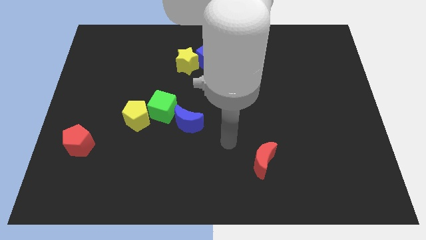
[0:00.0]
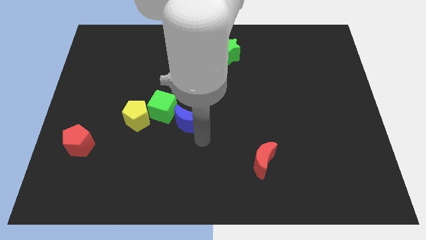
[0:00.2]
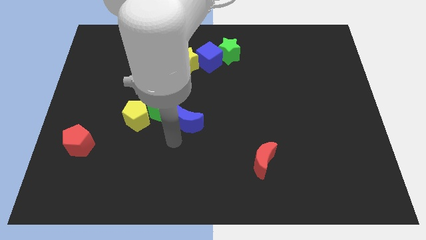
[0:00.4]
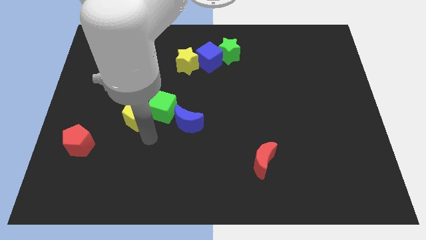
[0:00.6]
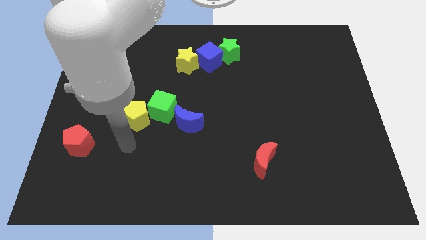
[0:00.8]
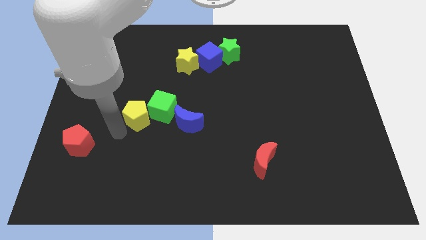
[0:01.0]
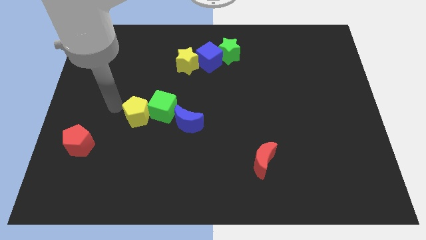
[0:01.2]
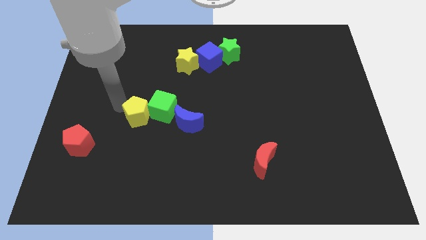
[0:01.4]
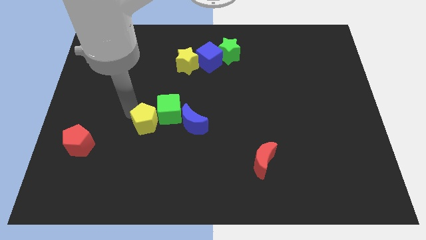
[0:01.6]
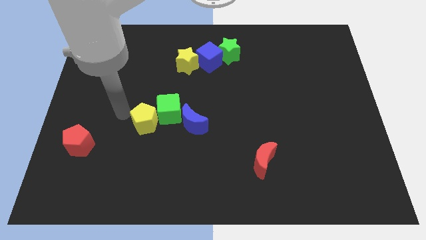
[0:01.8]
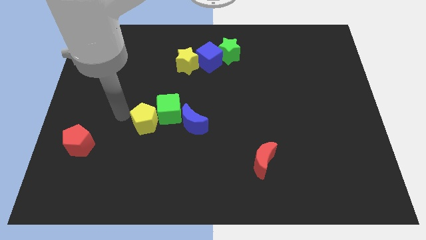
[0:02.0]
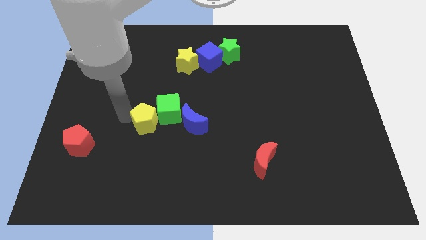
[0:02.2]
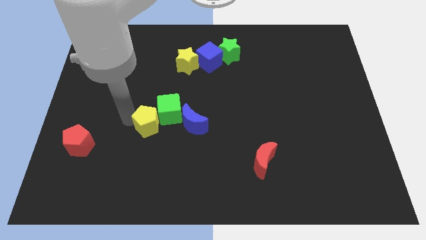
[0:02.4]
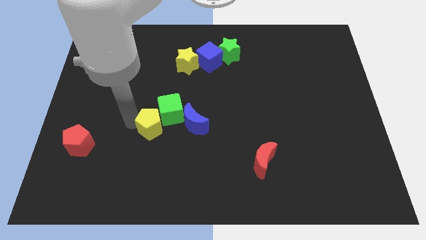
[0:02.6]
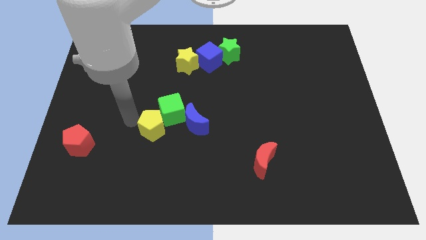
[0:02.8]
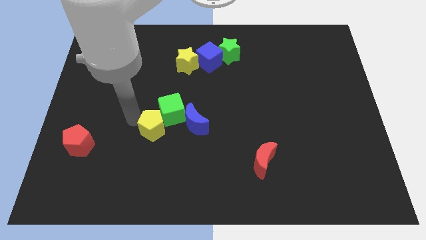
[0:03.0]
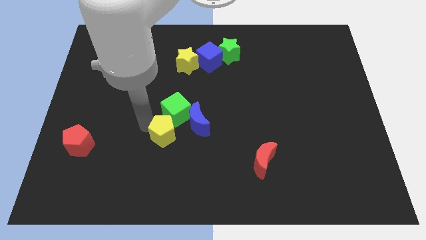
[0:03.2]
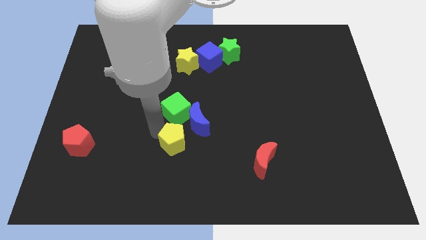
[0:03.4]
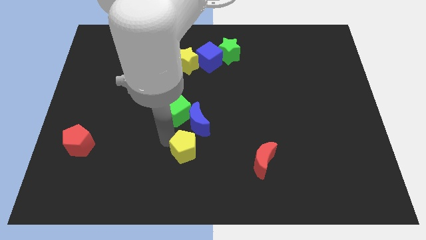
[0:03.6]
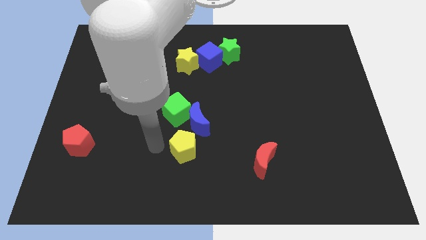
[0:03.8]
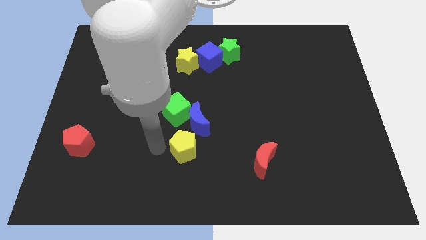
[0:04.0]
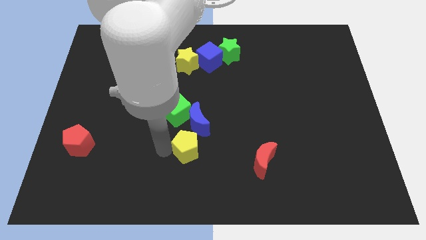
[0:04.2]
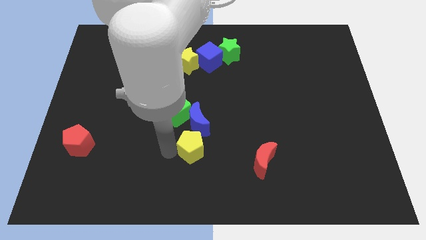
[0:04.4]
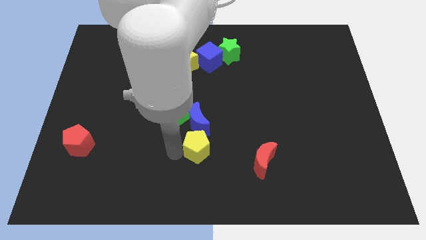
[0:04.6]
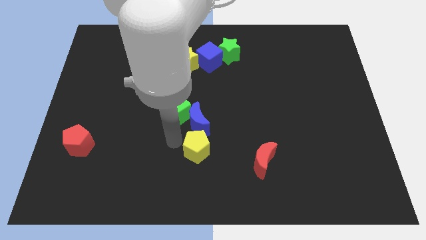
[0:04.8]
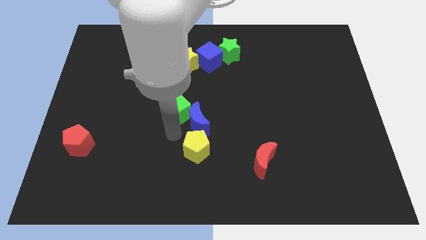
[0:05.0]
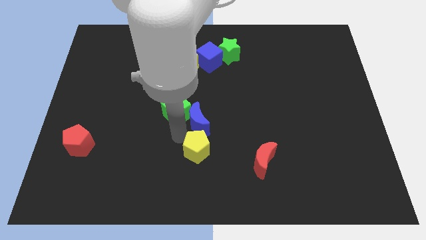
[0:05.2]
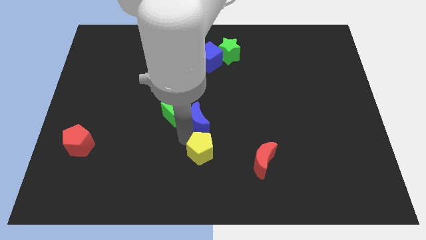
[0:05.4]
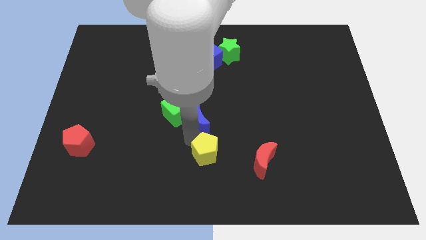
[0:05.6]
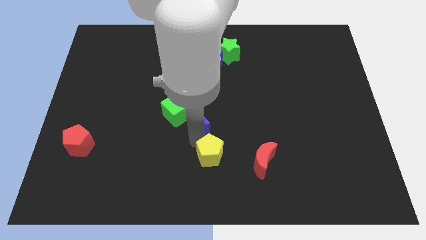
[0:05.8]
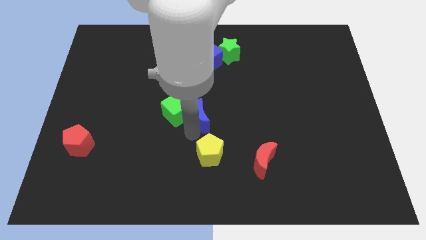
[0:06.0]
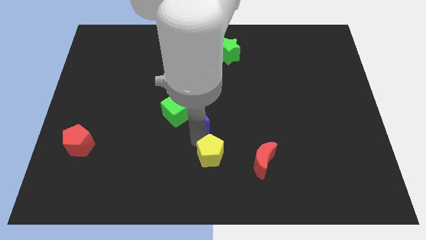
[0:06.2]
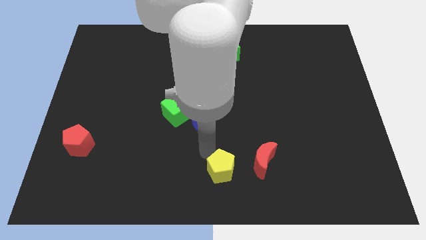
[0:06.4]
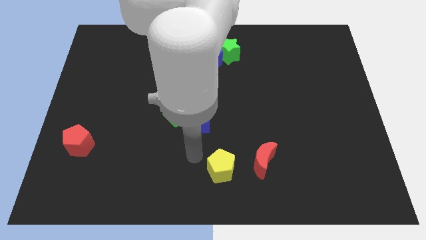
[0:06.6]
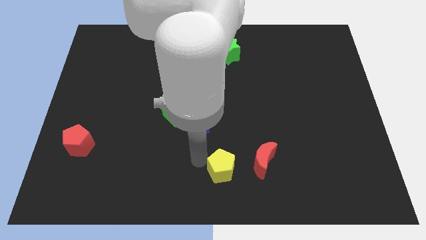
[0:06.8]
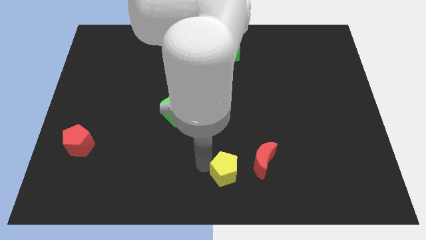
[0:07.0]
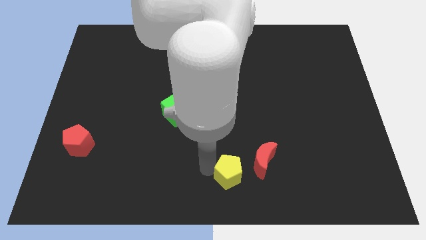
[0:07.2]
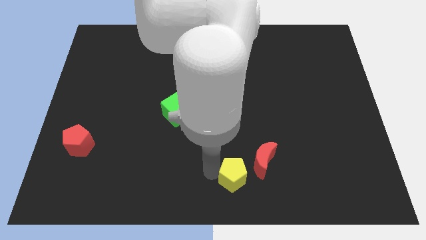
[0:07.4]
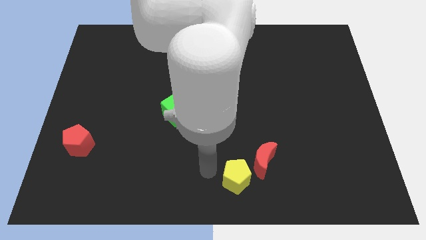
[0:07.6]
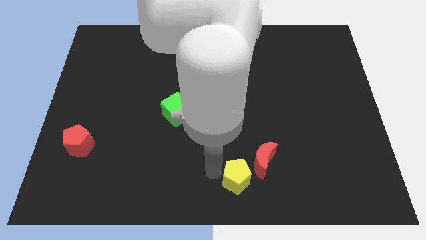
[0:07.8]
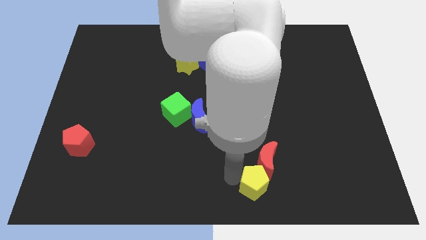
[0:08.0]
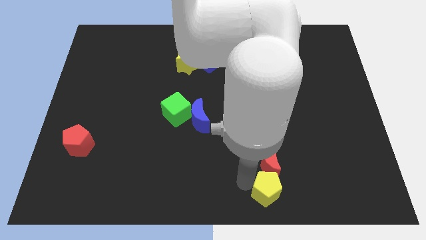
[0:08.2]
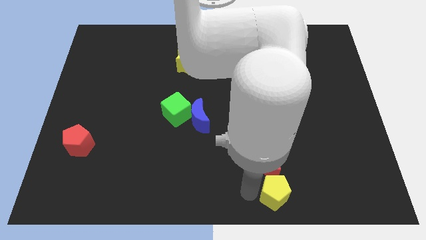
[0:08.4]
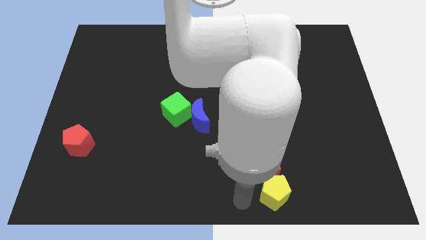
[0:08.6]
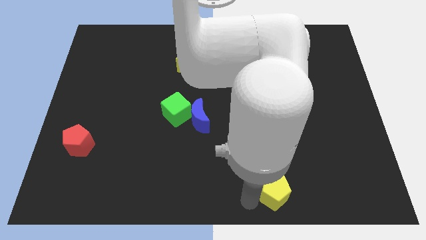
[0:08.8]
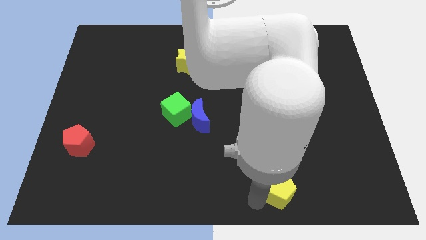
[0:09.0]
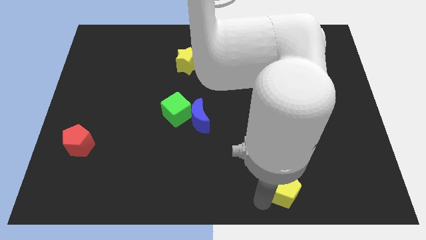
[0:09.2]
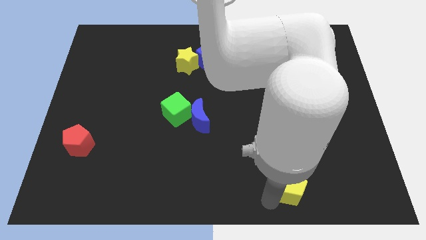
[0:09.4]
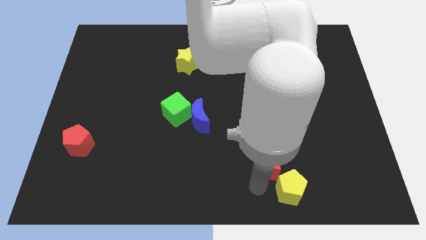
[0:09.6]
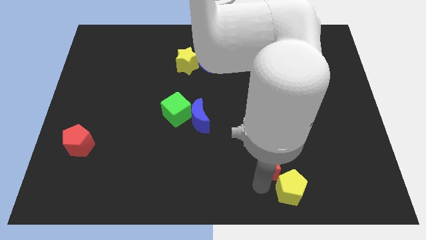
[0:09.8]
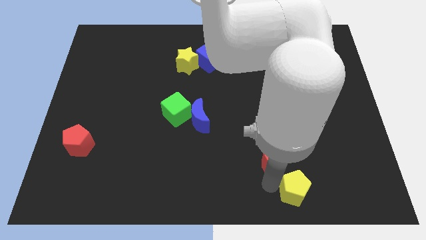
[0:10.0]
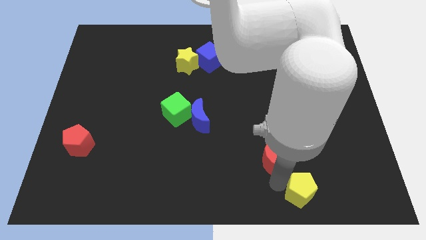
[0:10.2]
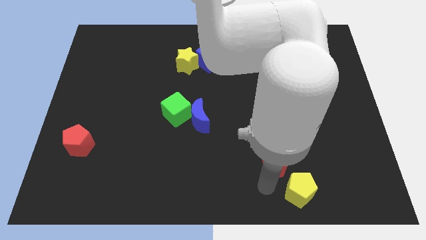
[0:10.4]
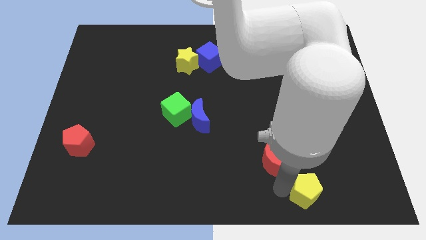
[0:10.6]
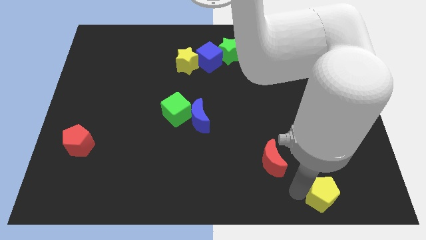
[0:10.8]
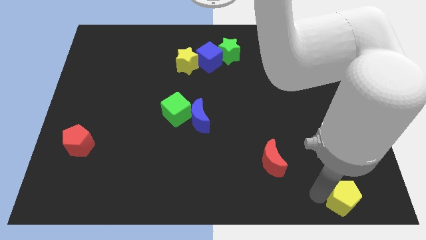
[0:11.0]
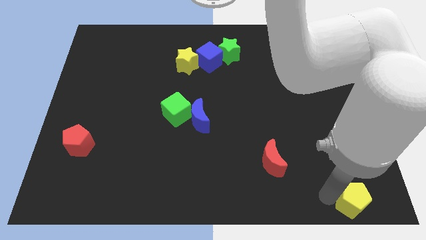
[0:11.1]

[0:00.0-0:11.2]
slide the yellow pentagon to the lower right corner

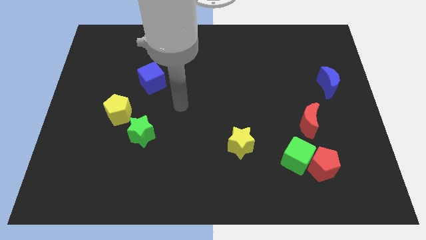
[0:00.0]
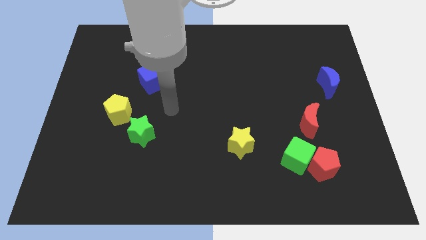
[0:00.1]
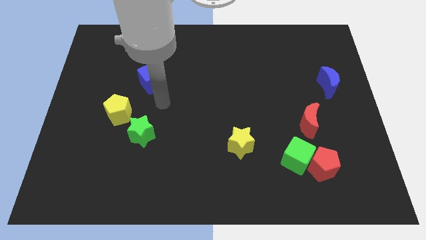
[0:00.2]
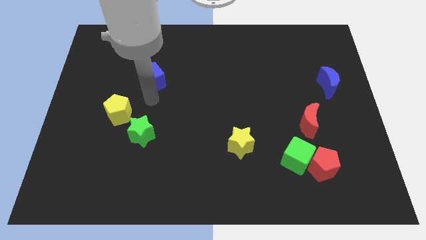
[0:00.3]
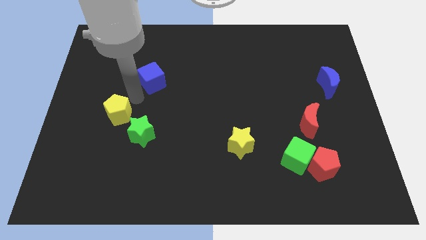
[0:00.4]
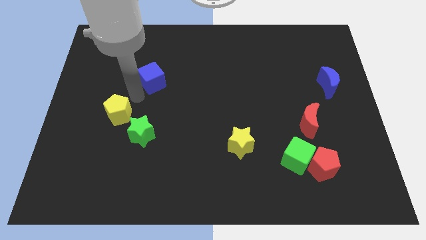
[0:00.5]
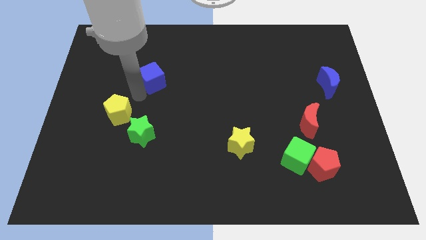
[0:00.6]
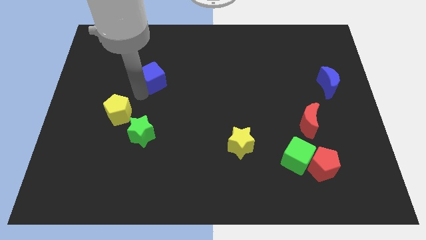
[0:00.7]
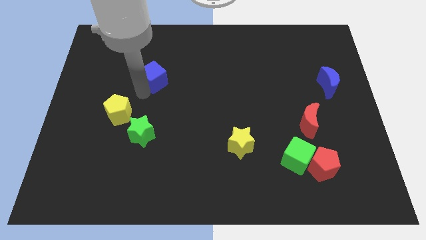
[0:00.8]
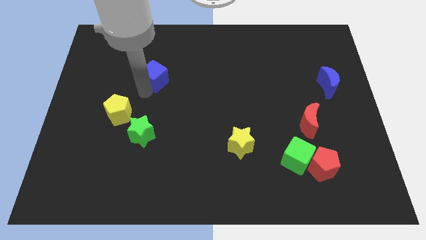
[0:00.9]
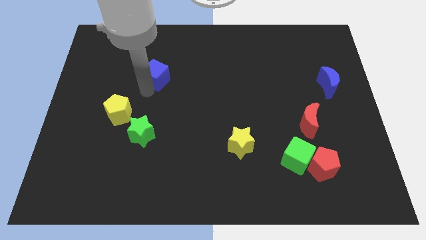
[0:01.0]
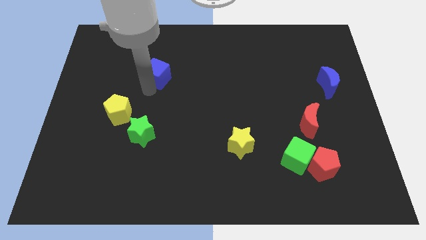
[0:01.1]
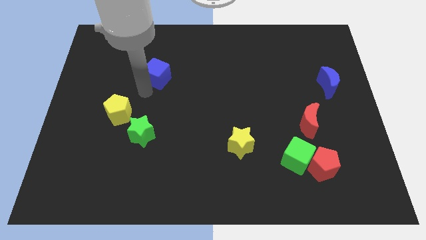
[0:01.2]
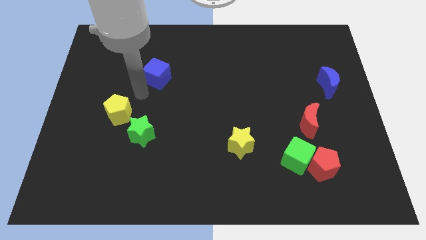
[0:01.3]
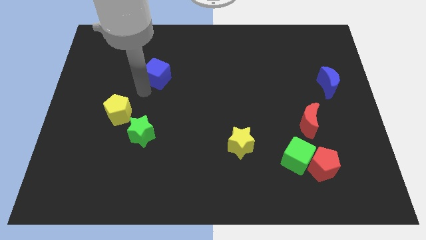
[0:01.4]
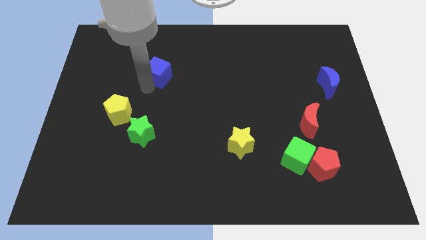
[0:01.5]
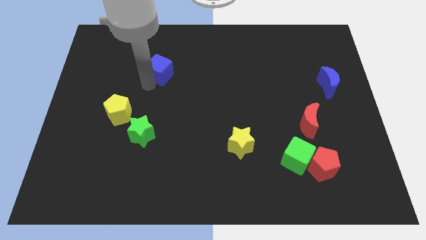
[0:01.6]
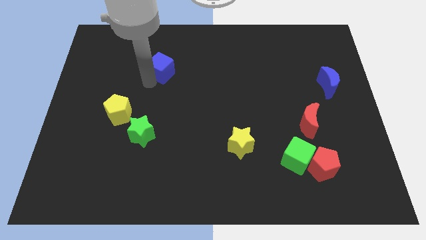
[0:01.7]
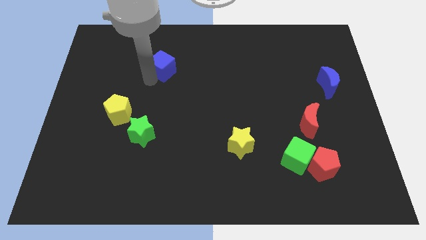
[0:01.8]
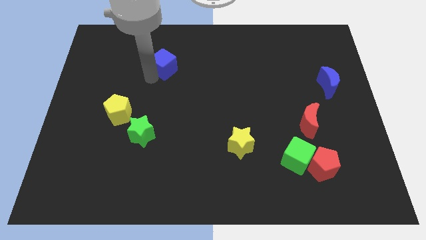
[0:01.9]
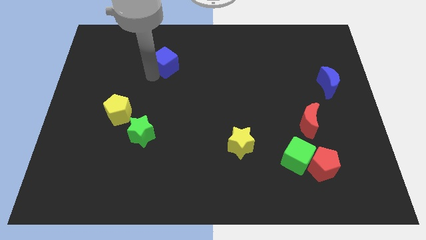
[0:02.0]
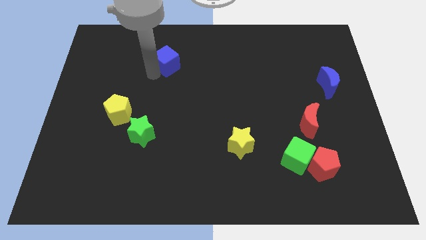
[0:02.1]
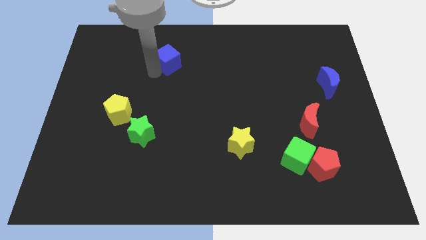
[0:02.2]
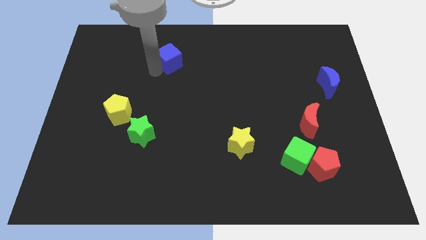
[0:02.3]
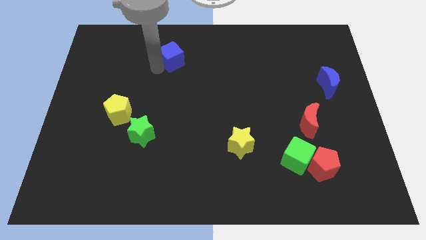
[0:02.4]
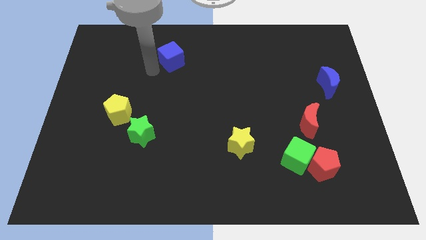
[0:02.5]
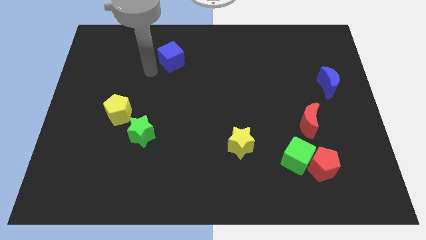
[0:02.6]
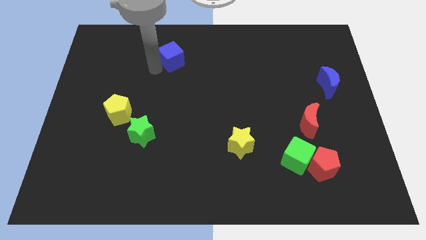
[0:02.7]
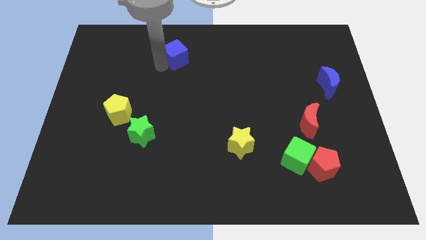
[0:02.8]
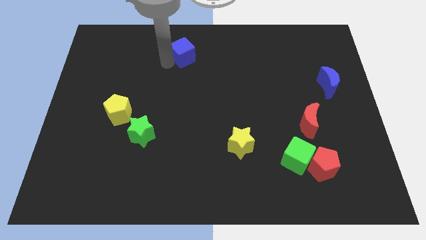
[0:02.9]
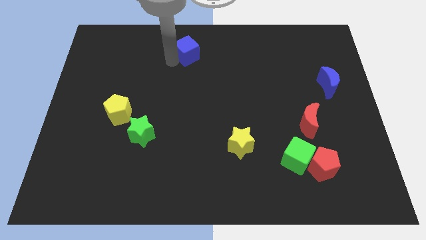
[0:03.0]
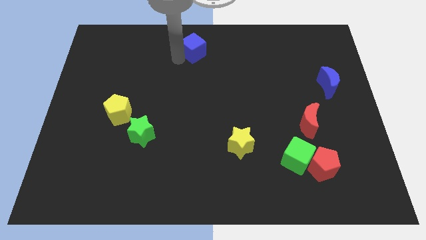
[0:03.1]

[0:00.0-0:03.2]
push the blue cube to the top side
